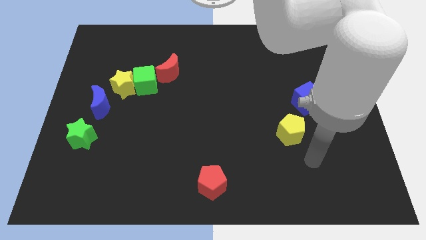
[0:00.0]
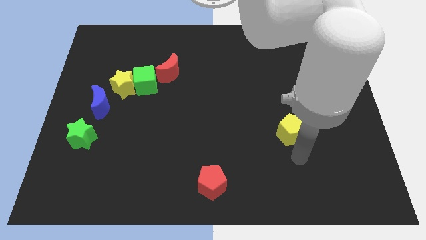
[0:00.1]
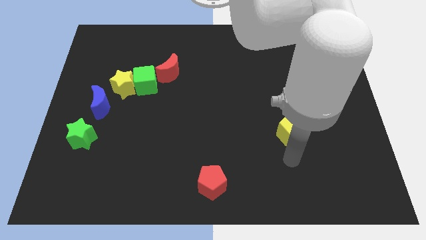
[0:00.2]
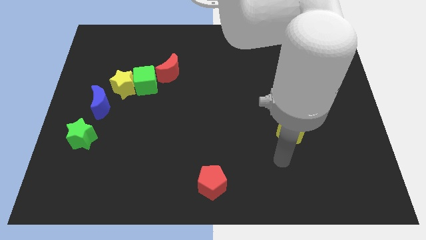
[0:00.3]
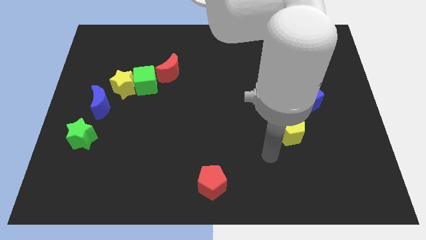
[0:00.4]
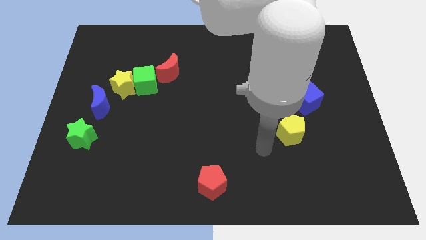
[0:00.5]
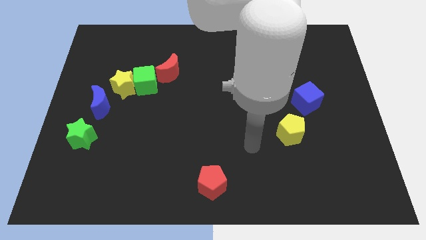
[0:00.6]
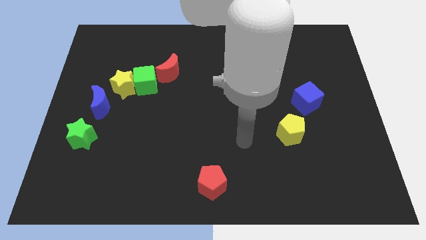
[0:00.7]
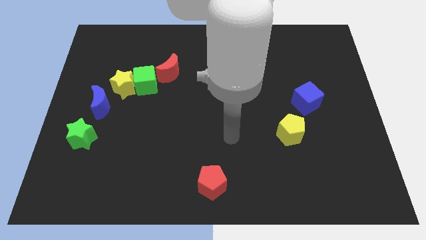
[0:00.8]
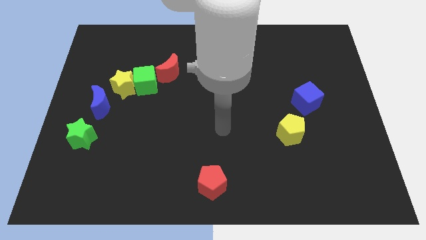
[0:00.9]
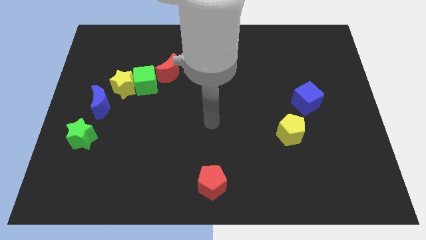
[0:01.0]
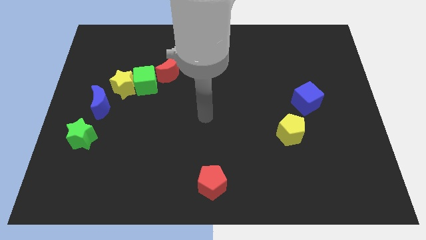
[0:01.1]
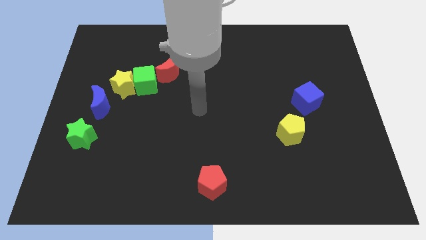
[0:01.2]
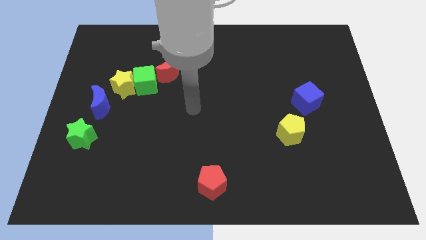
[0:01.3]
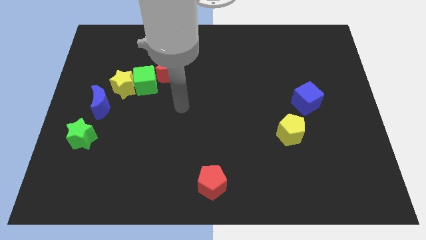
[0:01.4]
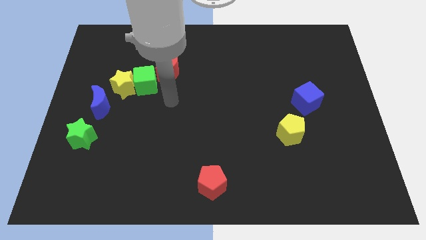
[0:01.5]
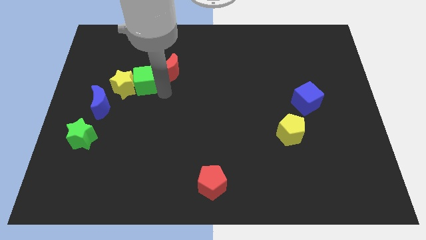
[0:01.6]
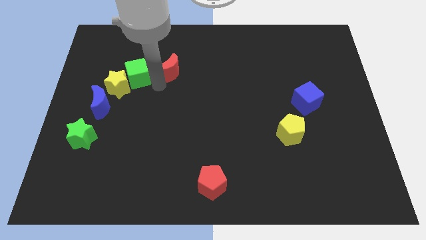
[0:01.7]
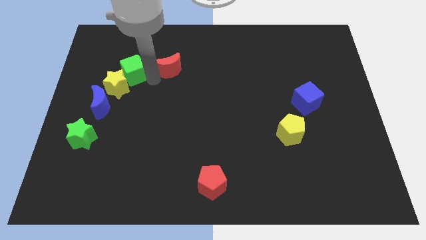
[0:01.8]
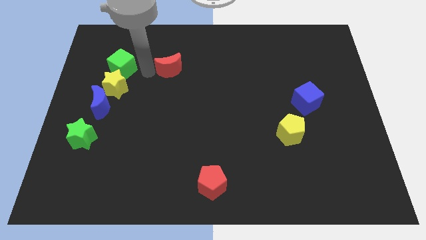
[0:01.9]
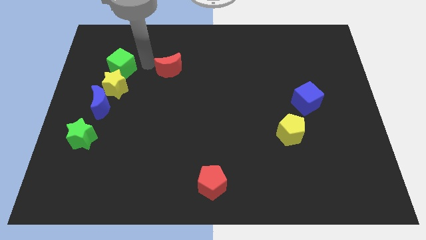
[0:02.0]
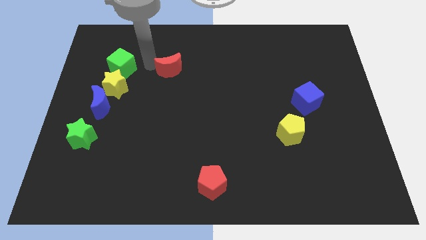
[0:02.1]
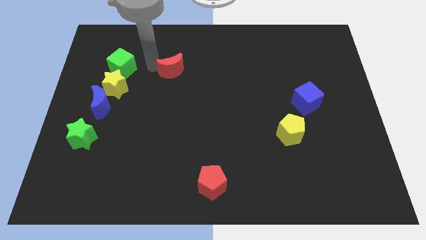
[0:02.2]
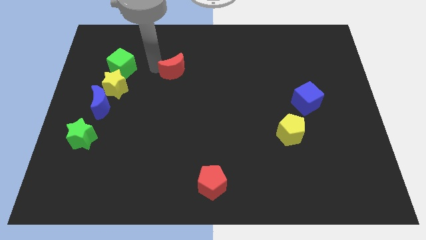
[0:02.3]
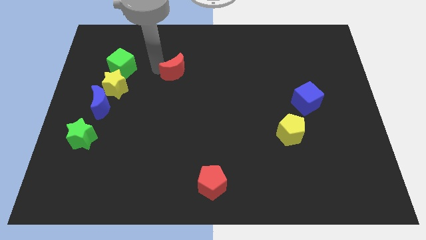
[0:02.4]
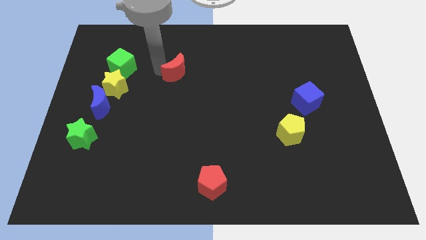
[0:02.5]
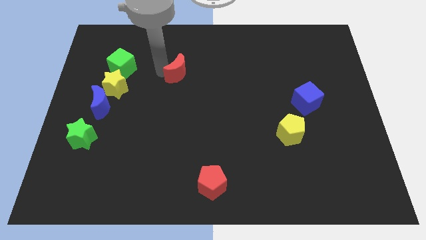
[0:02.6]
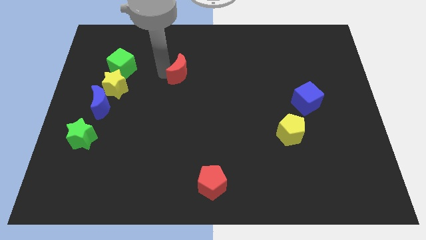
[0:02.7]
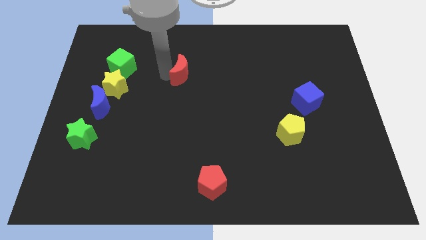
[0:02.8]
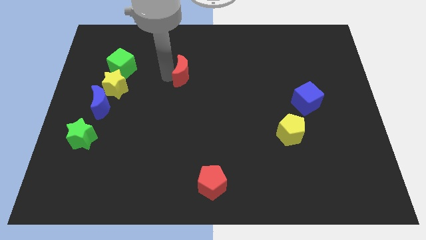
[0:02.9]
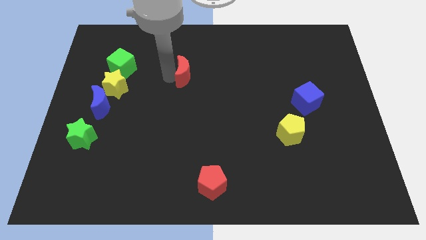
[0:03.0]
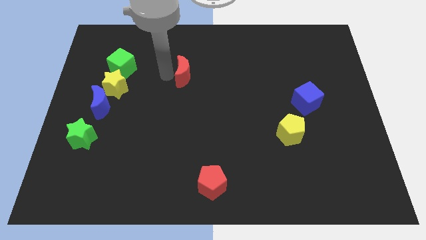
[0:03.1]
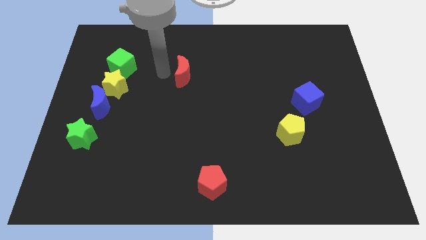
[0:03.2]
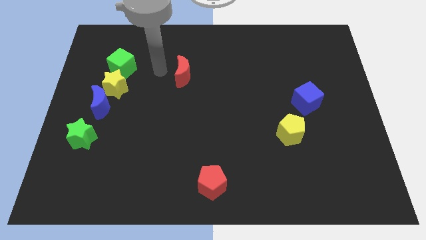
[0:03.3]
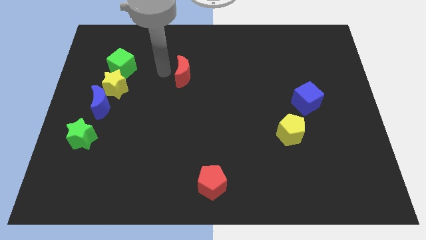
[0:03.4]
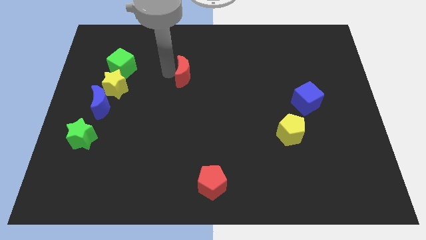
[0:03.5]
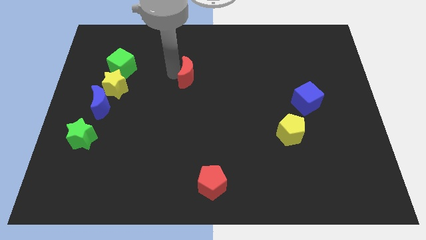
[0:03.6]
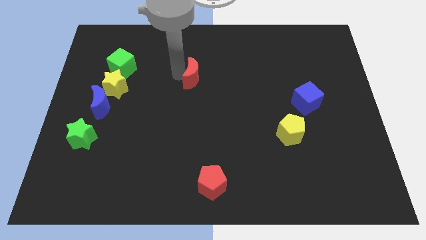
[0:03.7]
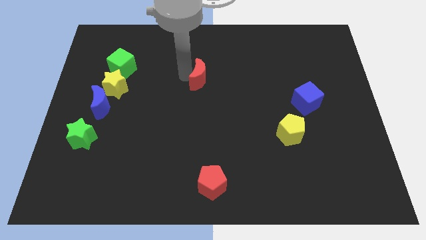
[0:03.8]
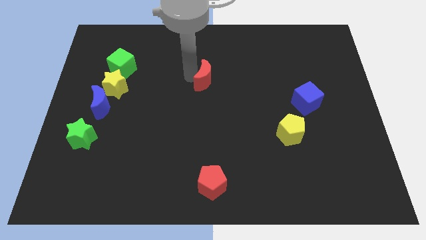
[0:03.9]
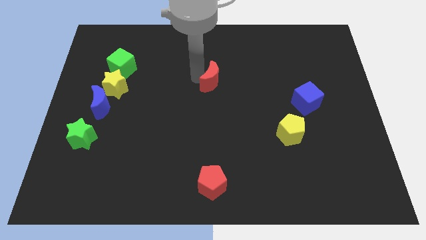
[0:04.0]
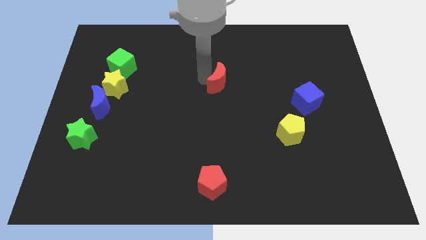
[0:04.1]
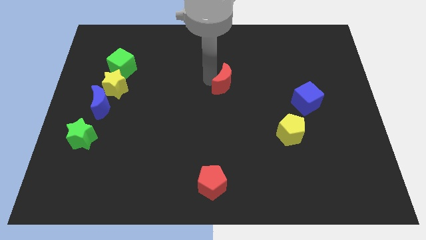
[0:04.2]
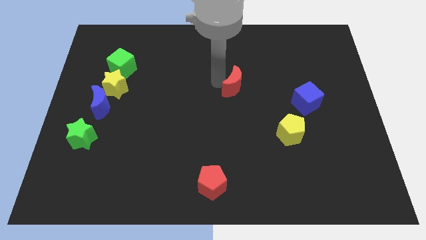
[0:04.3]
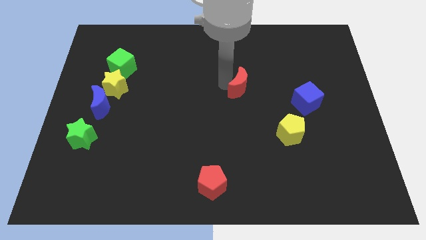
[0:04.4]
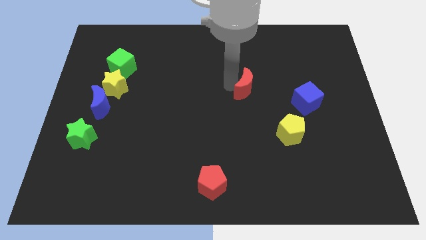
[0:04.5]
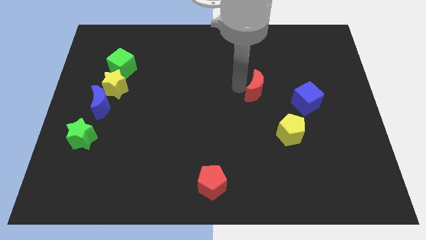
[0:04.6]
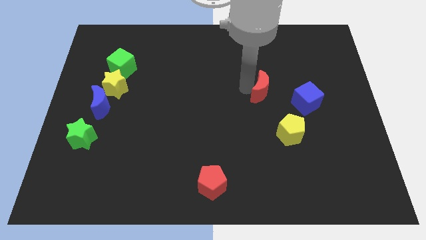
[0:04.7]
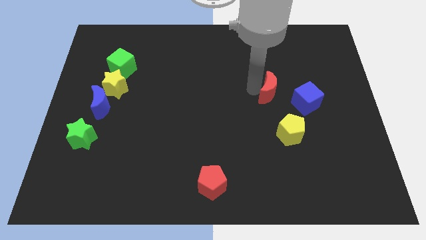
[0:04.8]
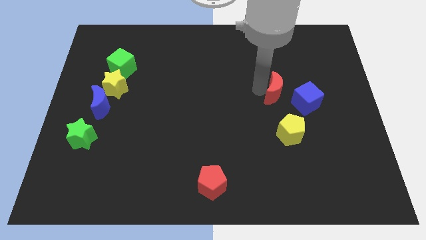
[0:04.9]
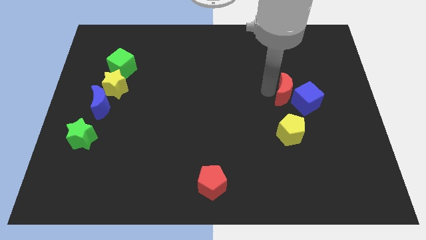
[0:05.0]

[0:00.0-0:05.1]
slide the red moon next to the blue cube

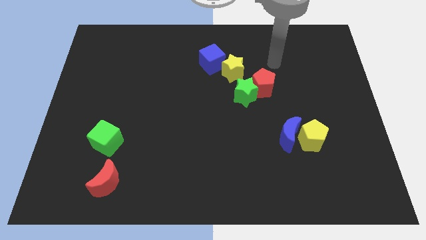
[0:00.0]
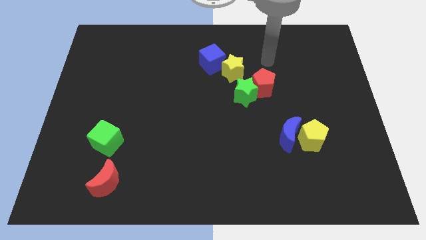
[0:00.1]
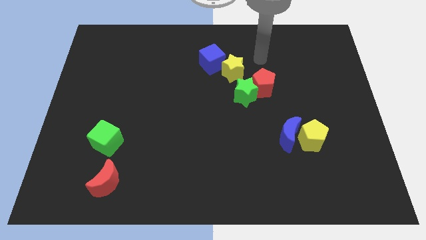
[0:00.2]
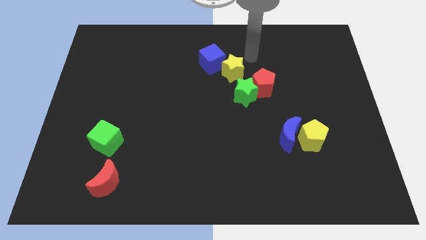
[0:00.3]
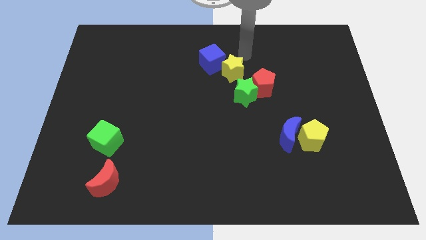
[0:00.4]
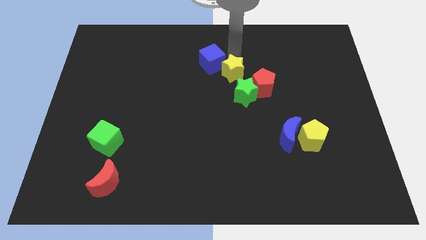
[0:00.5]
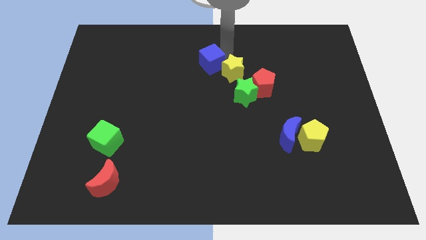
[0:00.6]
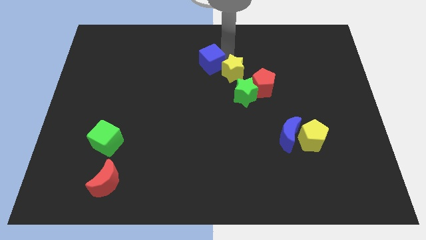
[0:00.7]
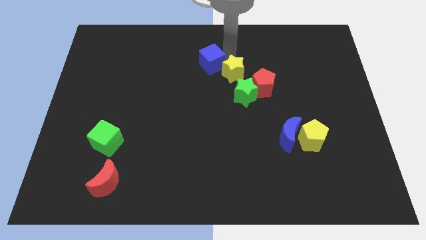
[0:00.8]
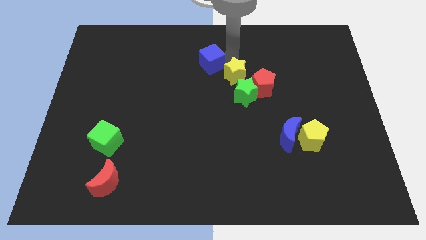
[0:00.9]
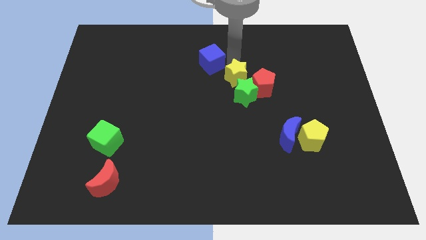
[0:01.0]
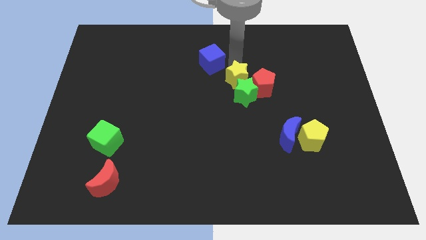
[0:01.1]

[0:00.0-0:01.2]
push the yellow star towards the green star
